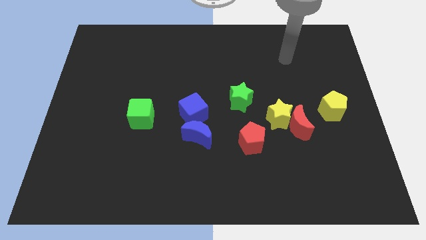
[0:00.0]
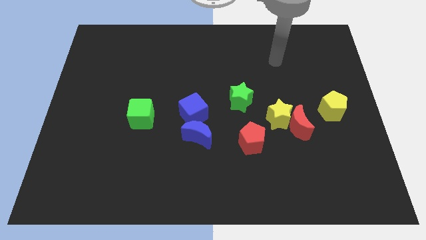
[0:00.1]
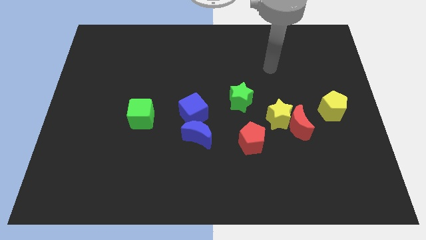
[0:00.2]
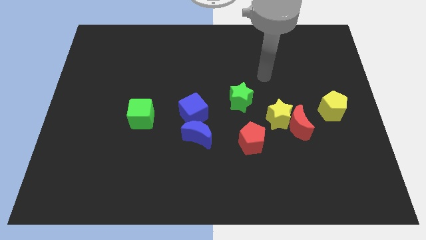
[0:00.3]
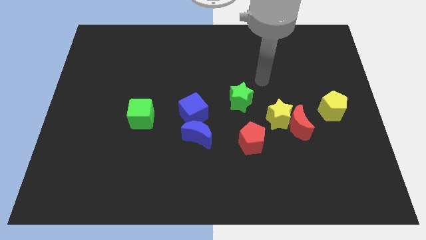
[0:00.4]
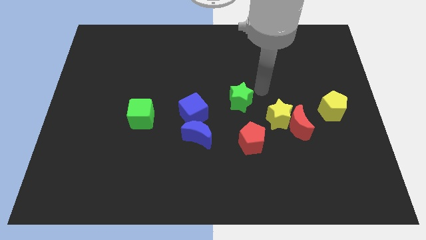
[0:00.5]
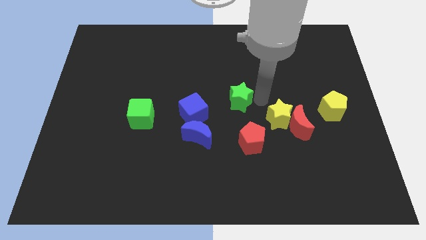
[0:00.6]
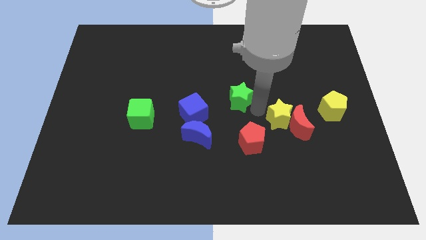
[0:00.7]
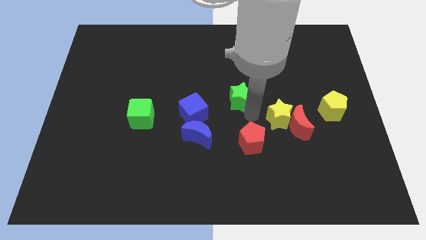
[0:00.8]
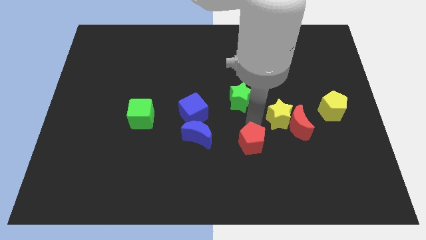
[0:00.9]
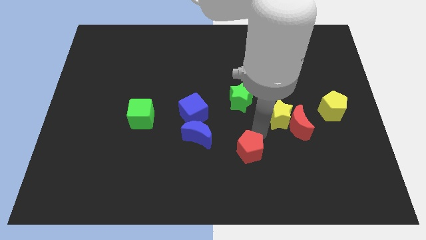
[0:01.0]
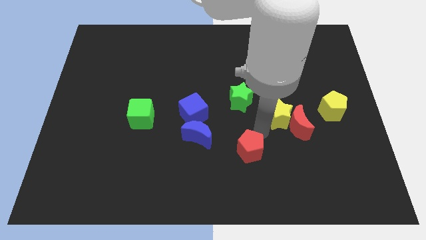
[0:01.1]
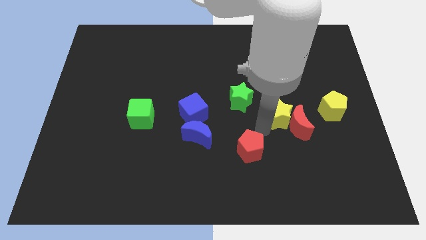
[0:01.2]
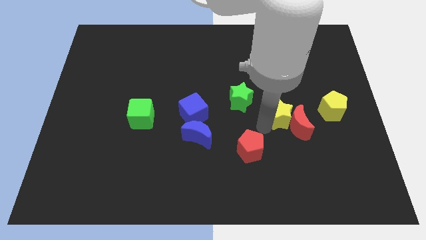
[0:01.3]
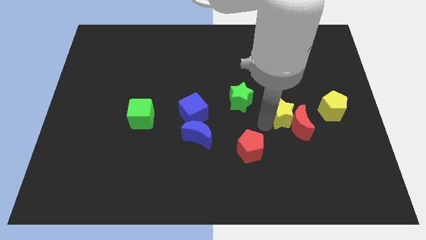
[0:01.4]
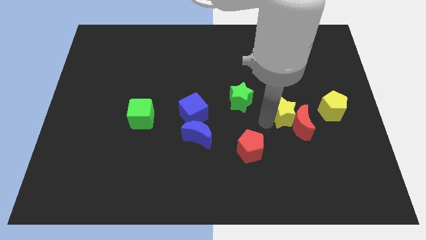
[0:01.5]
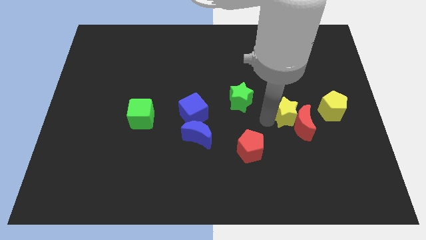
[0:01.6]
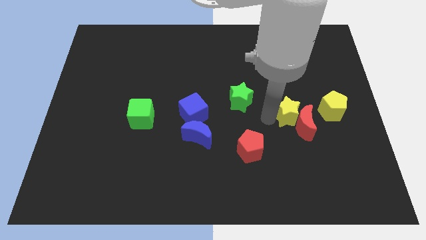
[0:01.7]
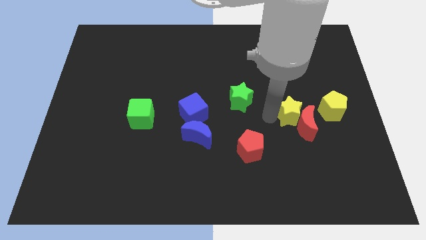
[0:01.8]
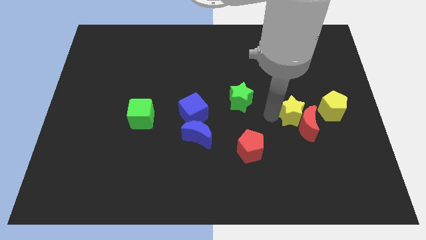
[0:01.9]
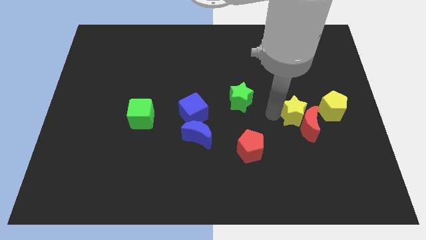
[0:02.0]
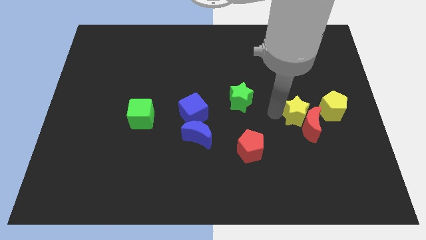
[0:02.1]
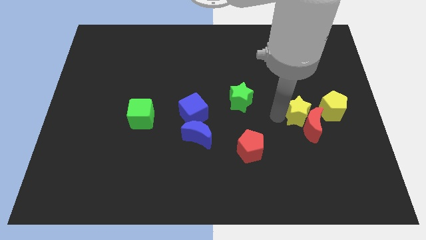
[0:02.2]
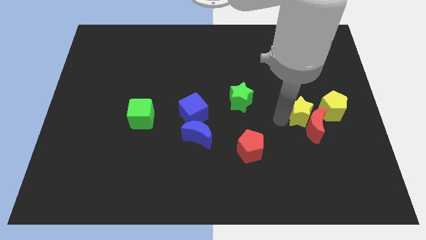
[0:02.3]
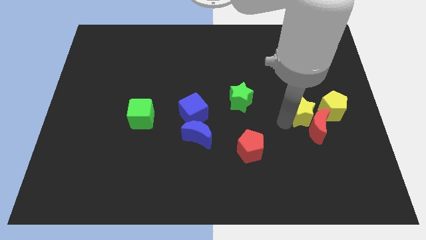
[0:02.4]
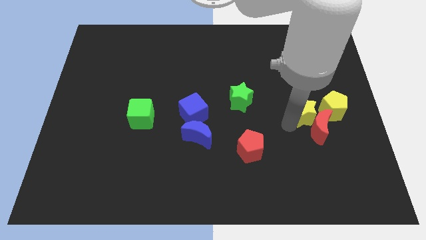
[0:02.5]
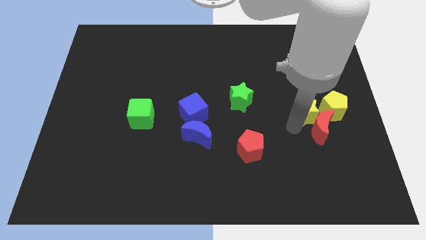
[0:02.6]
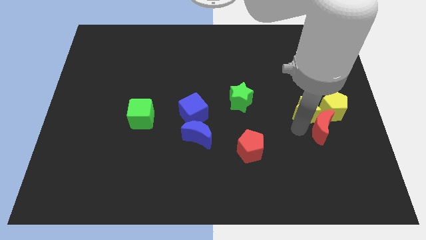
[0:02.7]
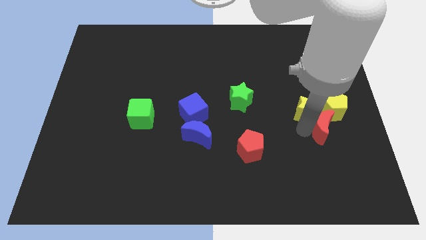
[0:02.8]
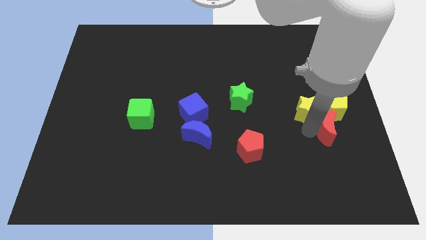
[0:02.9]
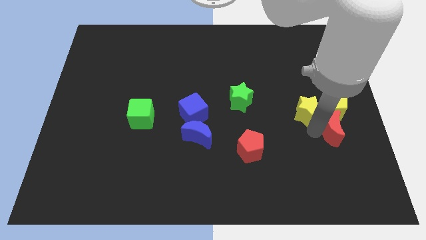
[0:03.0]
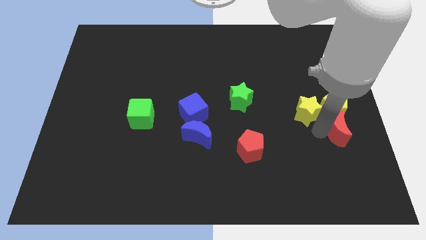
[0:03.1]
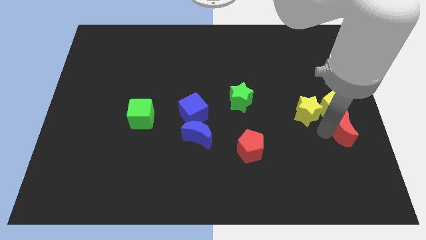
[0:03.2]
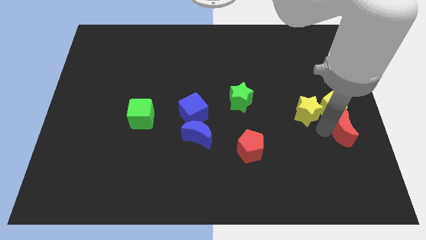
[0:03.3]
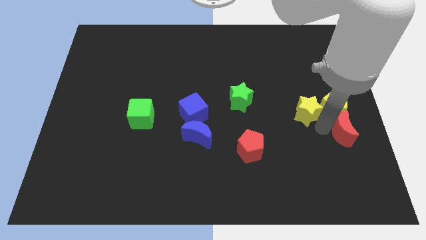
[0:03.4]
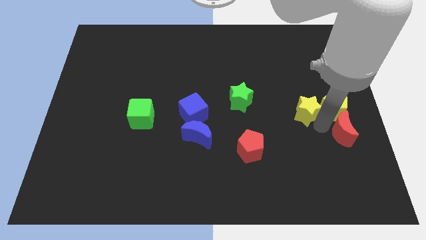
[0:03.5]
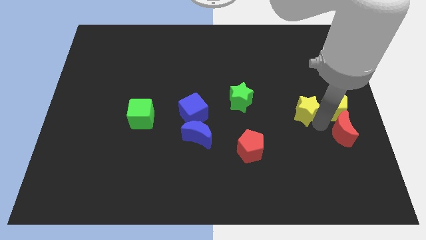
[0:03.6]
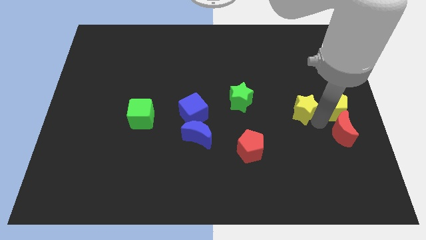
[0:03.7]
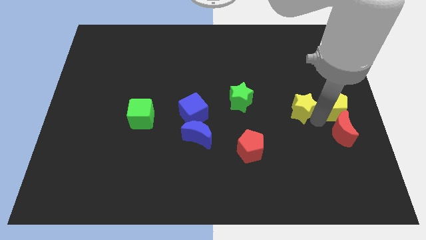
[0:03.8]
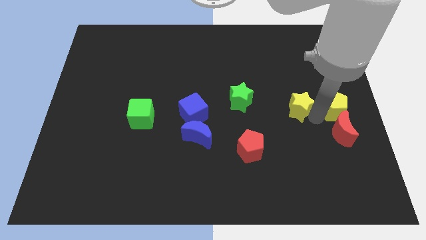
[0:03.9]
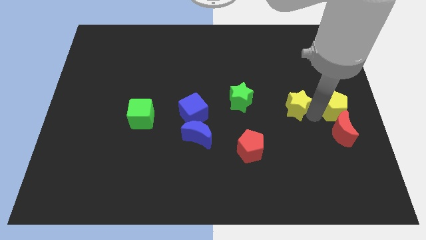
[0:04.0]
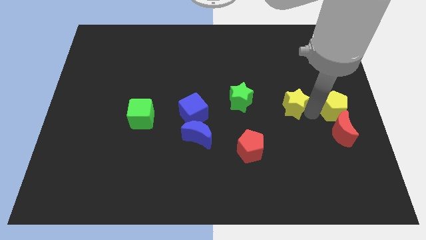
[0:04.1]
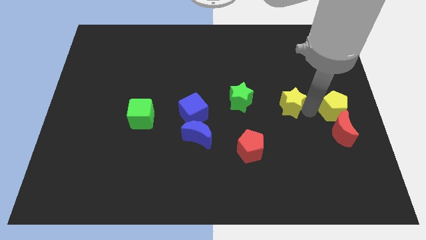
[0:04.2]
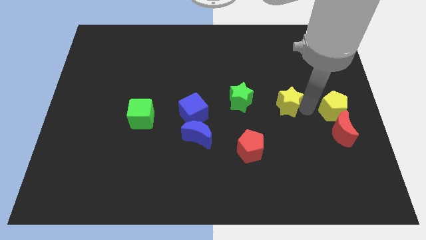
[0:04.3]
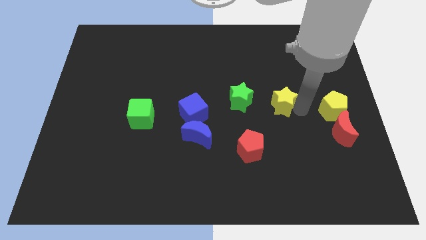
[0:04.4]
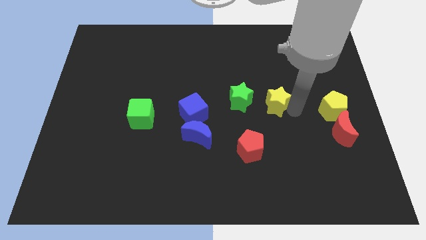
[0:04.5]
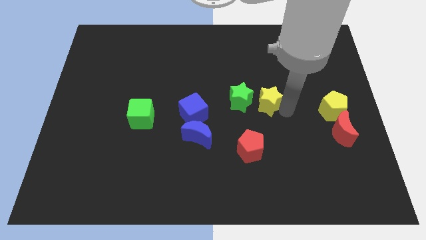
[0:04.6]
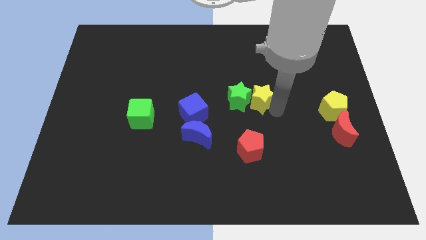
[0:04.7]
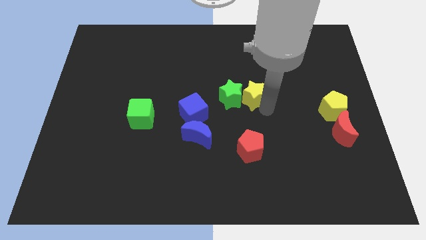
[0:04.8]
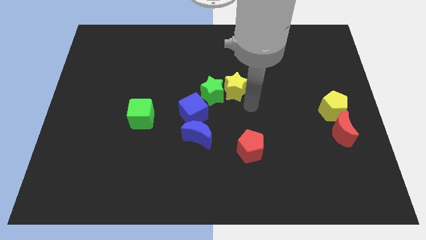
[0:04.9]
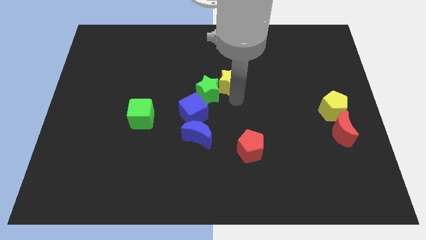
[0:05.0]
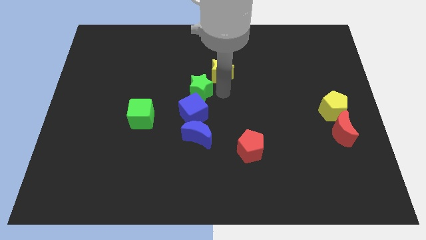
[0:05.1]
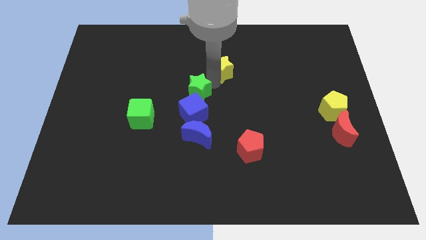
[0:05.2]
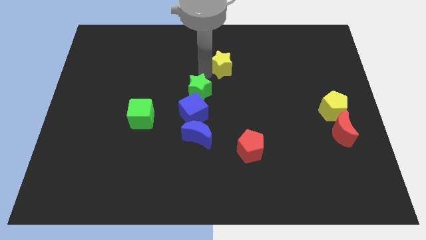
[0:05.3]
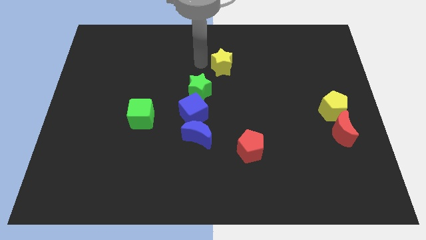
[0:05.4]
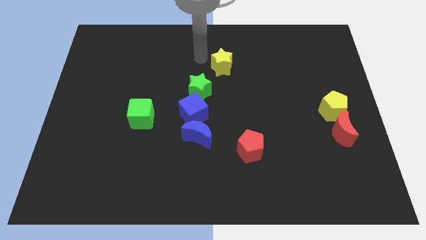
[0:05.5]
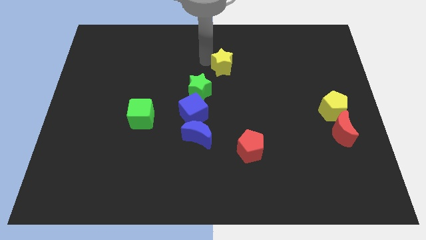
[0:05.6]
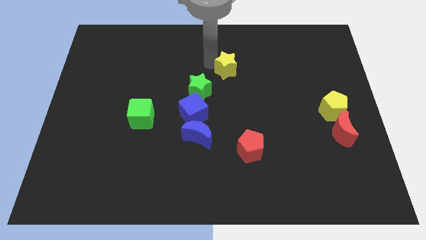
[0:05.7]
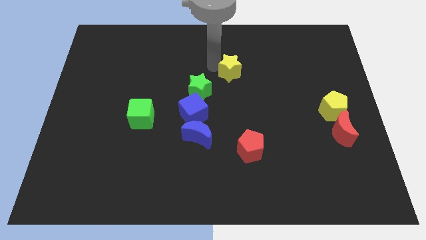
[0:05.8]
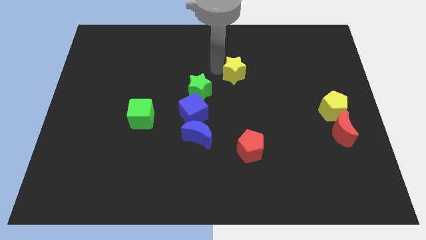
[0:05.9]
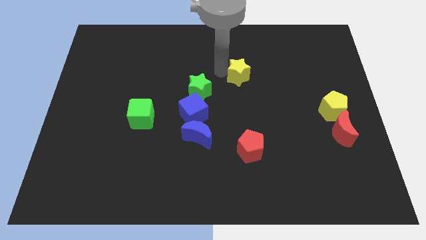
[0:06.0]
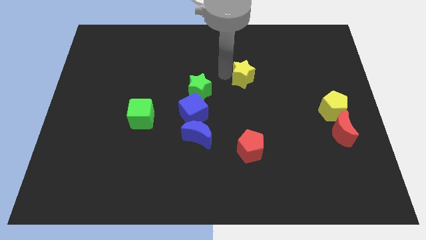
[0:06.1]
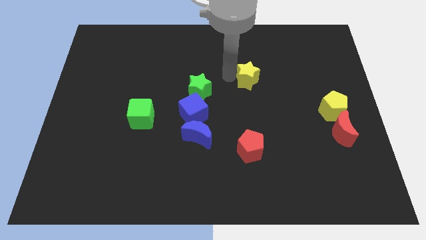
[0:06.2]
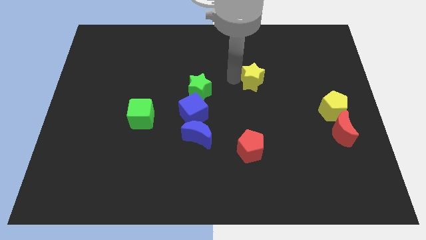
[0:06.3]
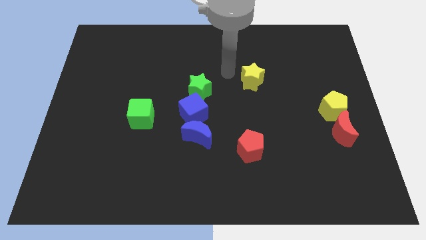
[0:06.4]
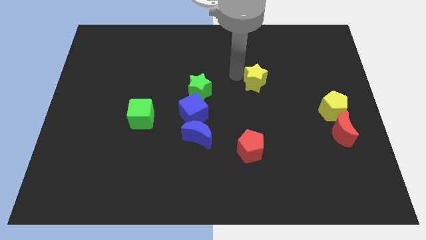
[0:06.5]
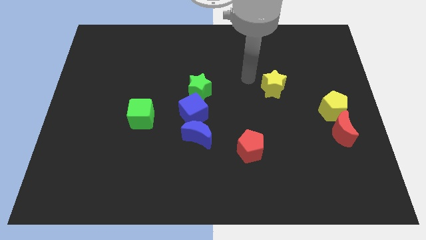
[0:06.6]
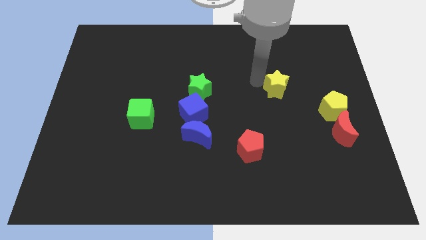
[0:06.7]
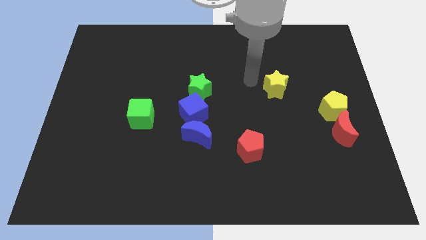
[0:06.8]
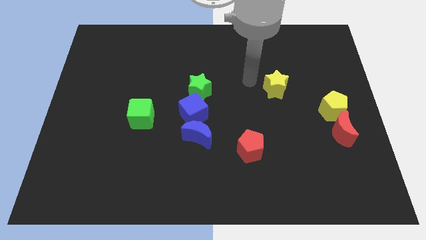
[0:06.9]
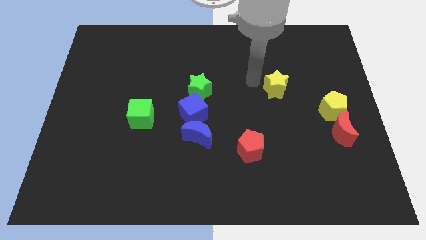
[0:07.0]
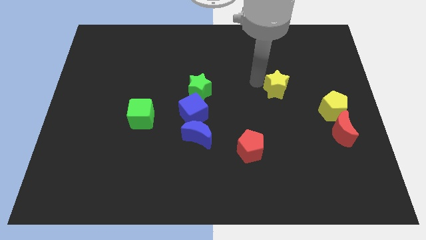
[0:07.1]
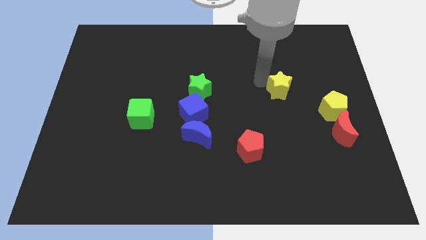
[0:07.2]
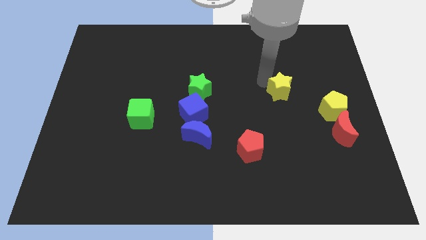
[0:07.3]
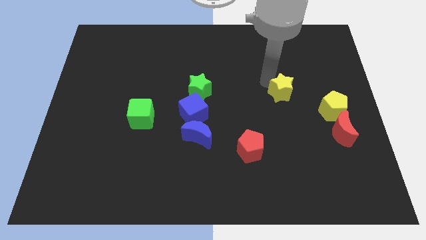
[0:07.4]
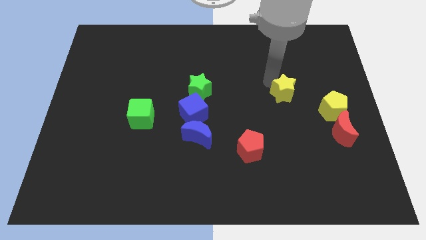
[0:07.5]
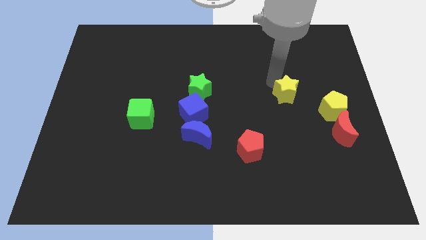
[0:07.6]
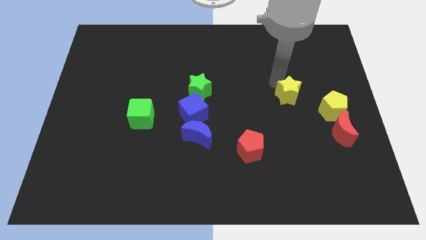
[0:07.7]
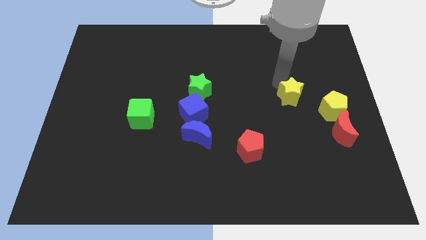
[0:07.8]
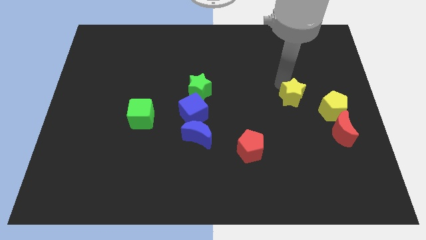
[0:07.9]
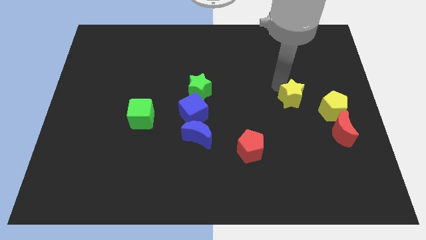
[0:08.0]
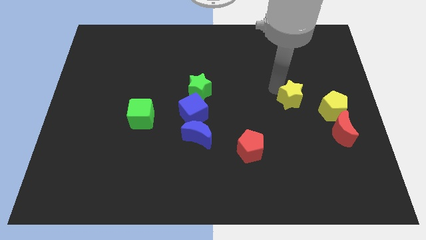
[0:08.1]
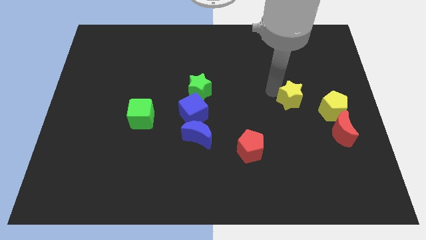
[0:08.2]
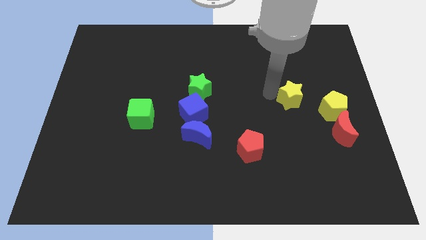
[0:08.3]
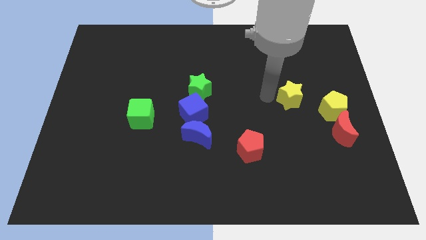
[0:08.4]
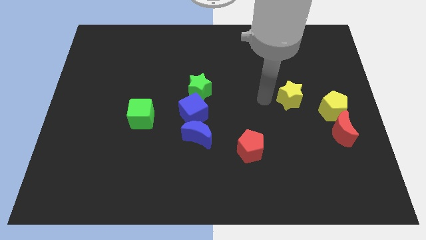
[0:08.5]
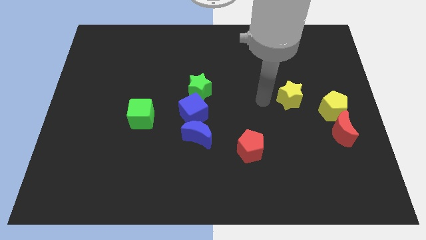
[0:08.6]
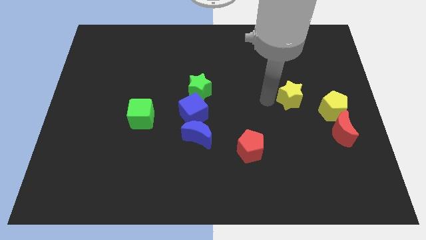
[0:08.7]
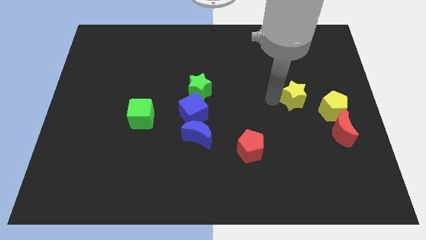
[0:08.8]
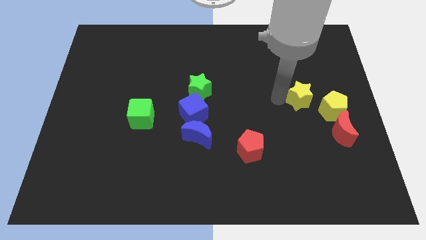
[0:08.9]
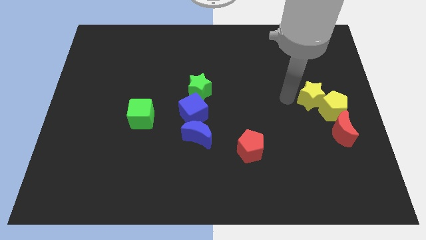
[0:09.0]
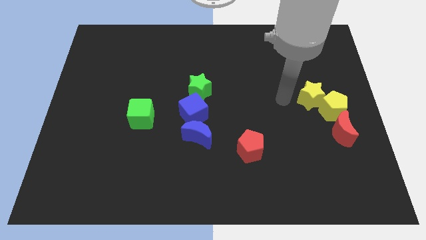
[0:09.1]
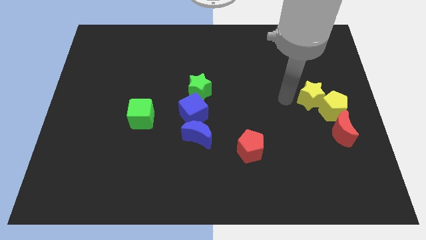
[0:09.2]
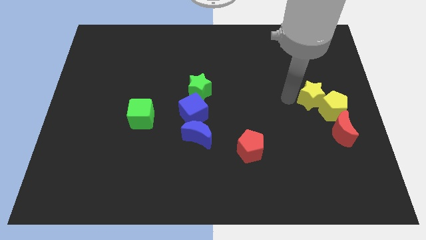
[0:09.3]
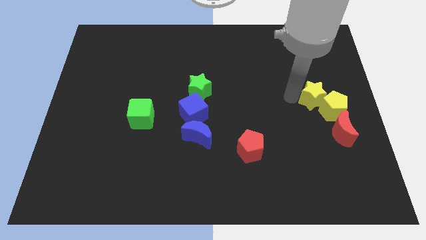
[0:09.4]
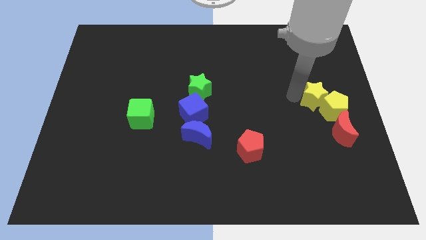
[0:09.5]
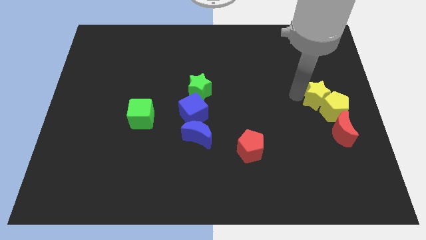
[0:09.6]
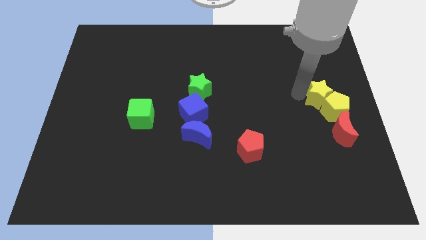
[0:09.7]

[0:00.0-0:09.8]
push the yellow star to the center right
